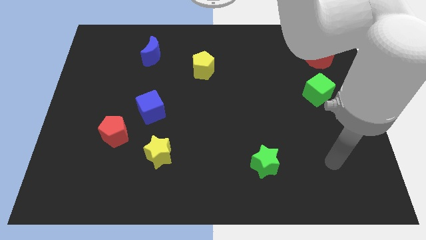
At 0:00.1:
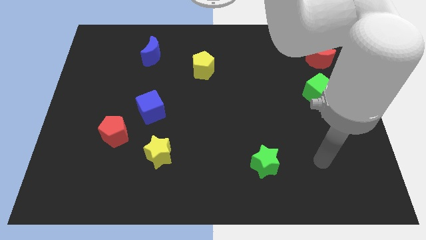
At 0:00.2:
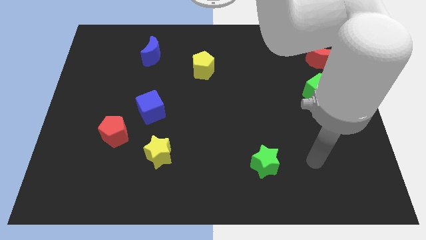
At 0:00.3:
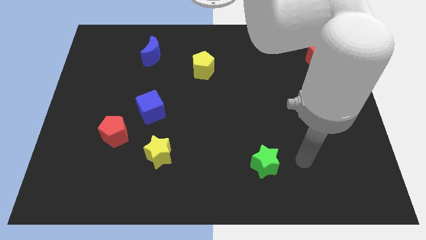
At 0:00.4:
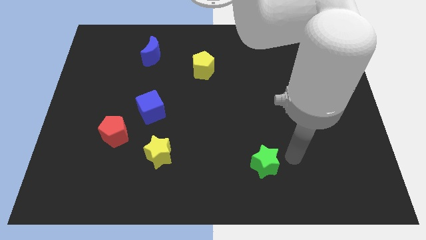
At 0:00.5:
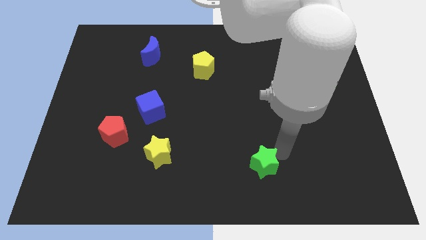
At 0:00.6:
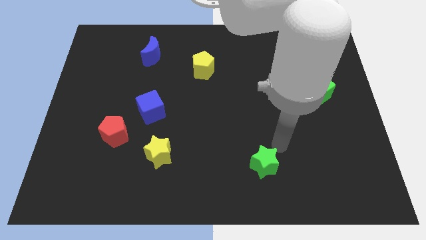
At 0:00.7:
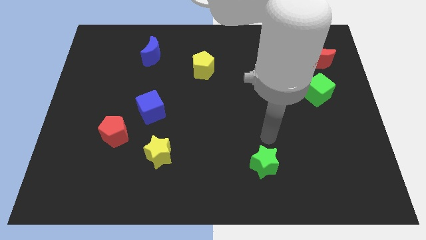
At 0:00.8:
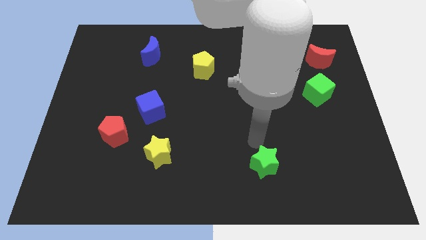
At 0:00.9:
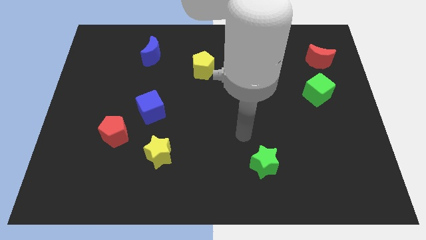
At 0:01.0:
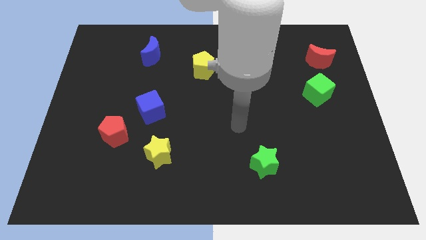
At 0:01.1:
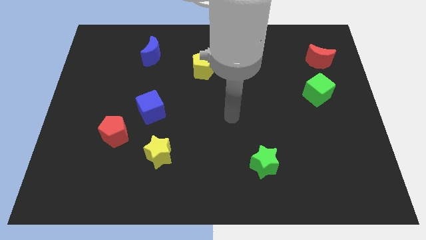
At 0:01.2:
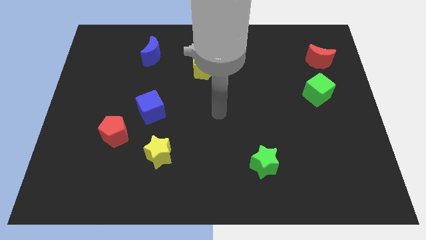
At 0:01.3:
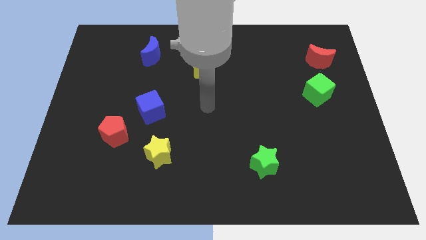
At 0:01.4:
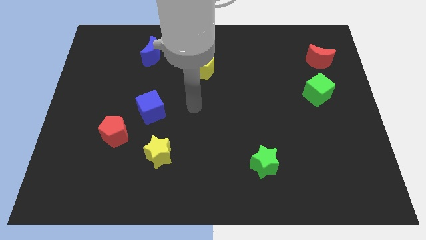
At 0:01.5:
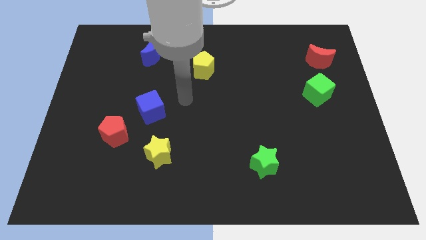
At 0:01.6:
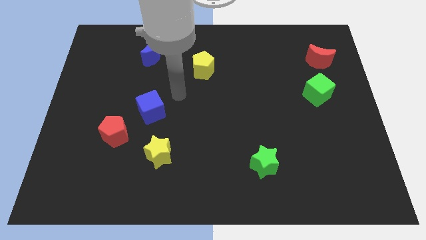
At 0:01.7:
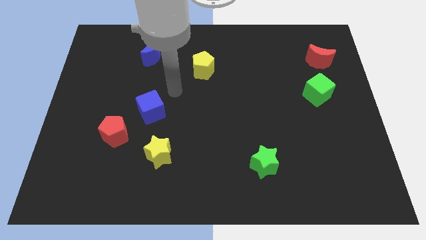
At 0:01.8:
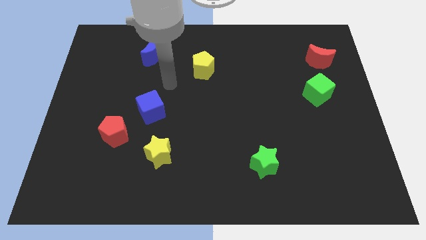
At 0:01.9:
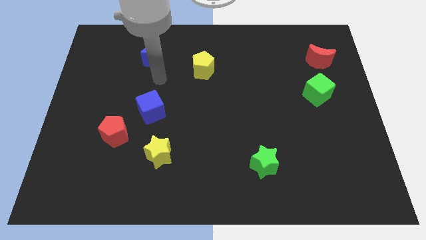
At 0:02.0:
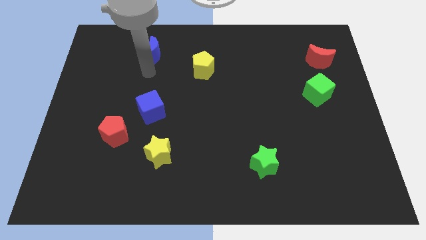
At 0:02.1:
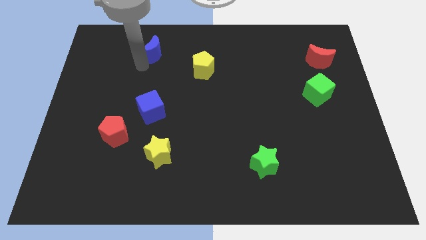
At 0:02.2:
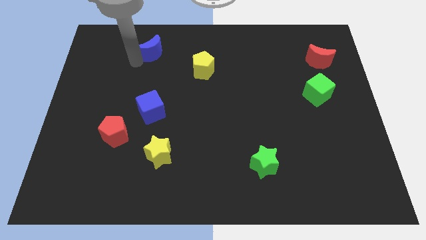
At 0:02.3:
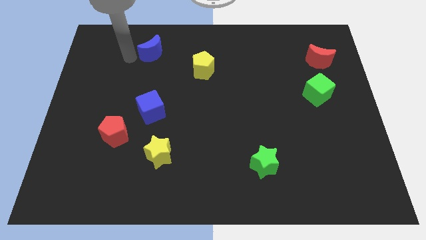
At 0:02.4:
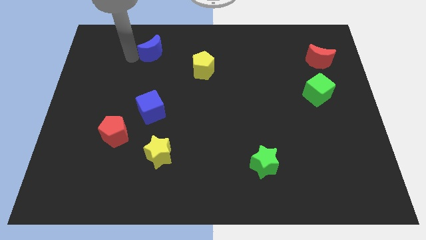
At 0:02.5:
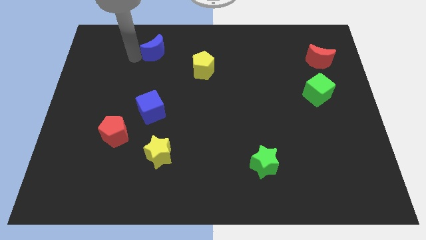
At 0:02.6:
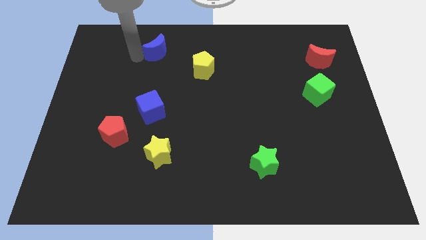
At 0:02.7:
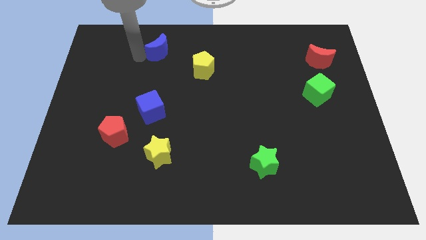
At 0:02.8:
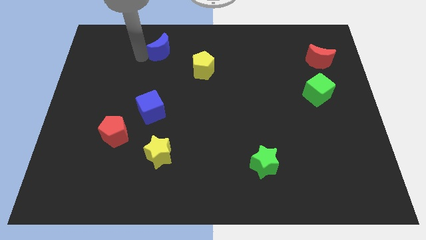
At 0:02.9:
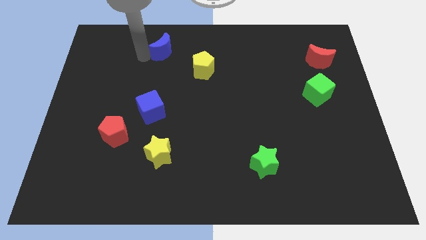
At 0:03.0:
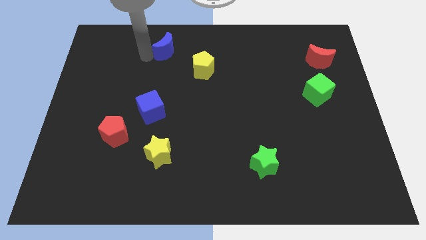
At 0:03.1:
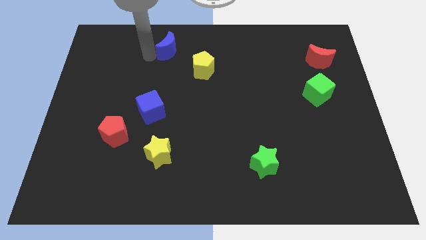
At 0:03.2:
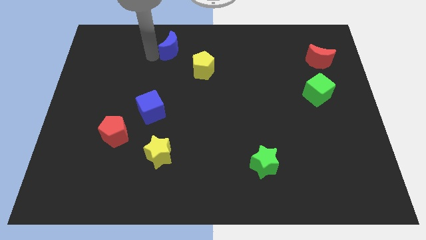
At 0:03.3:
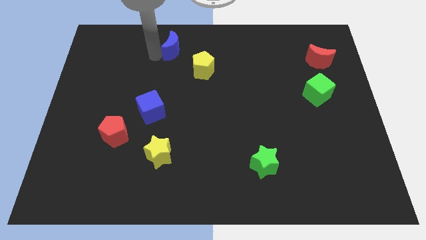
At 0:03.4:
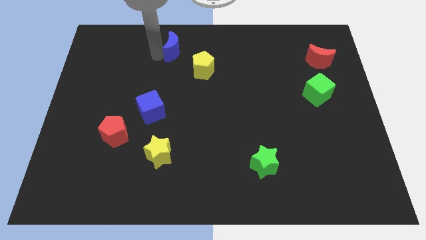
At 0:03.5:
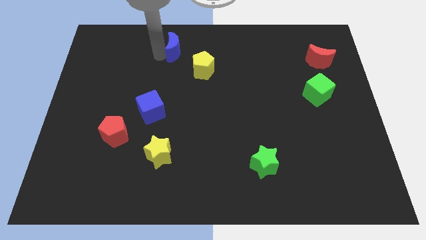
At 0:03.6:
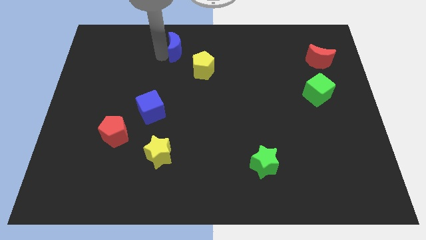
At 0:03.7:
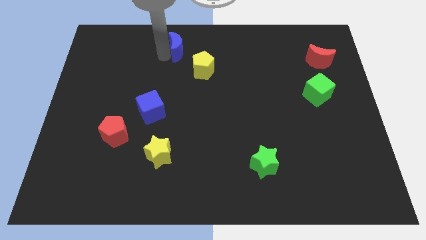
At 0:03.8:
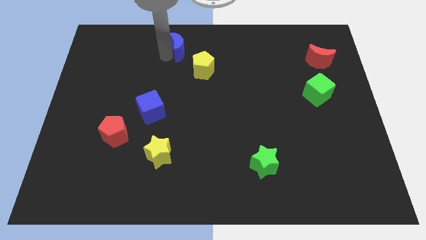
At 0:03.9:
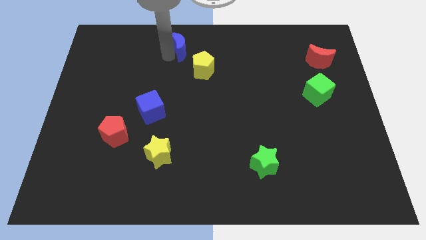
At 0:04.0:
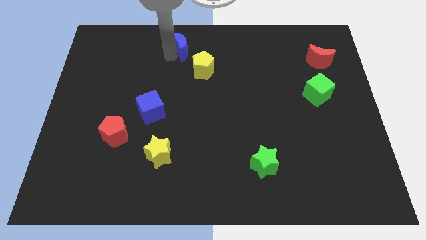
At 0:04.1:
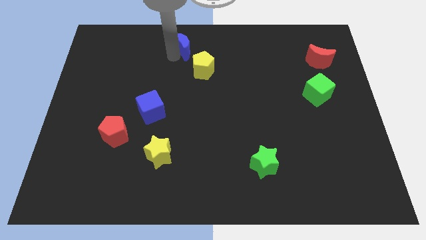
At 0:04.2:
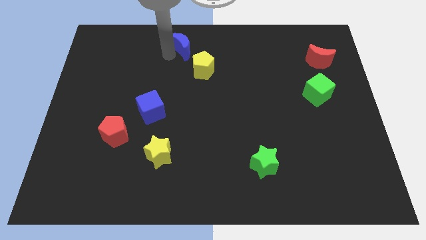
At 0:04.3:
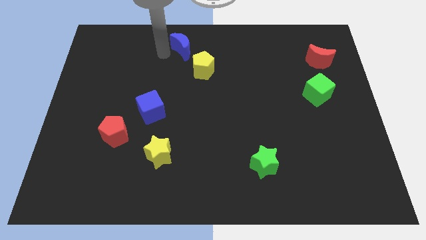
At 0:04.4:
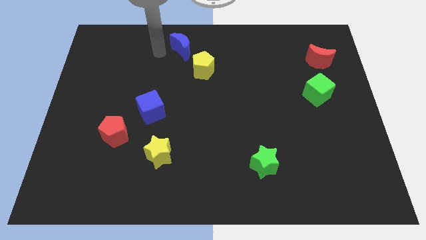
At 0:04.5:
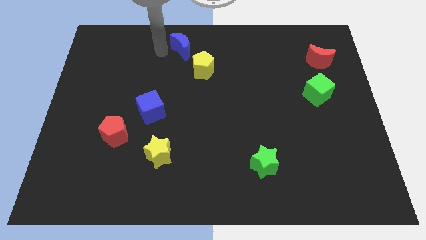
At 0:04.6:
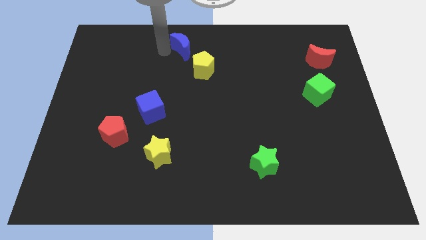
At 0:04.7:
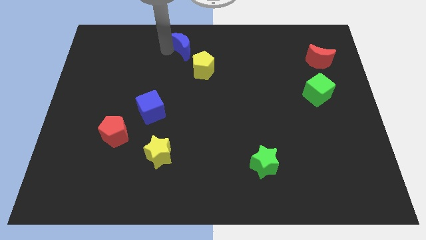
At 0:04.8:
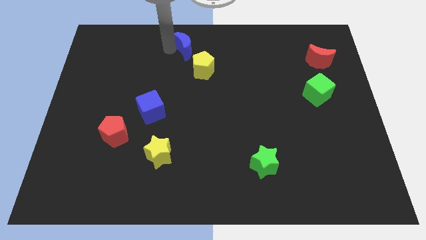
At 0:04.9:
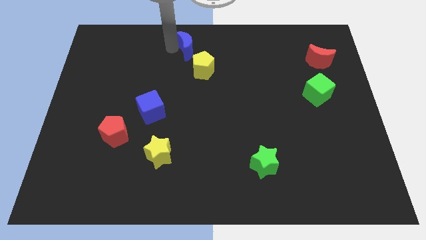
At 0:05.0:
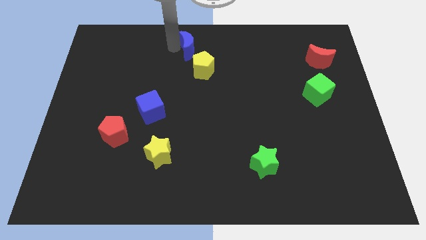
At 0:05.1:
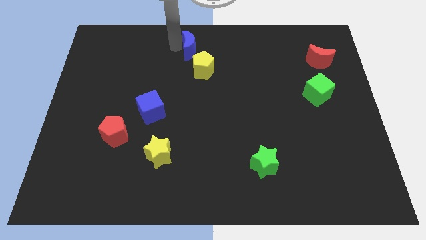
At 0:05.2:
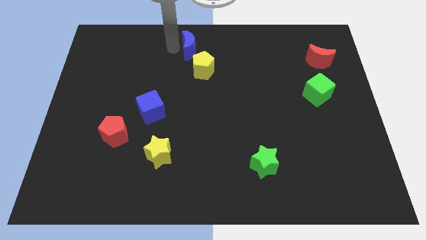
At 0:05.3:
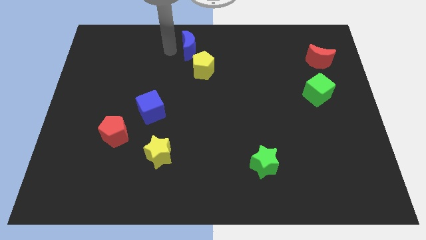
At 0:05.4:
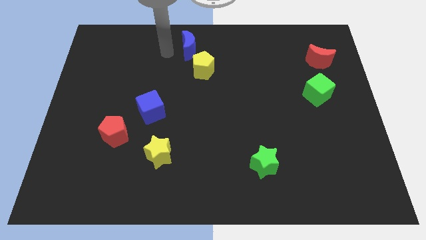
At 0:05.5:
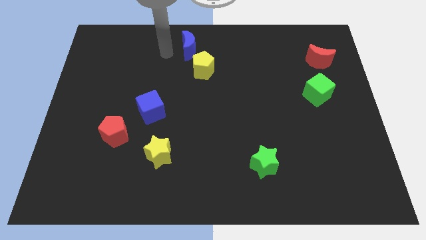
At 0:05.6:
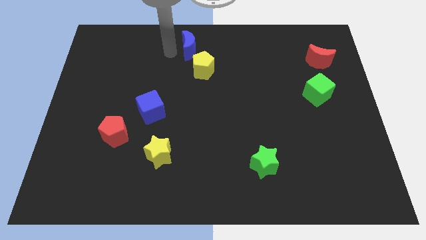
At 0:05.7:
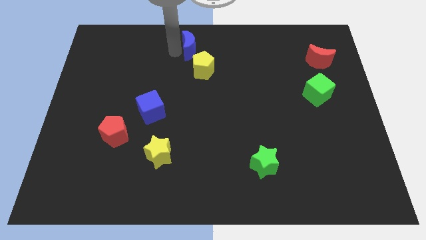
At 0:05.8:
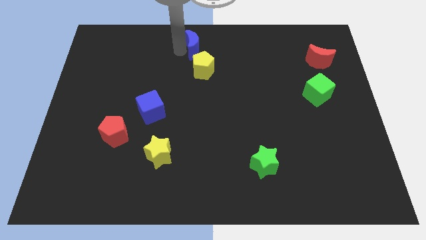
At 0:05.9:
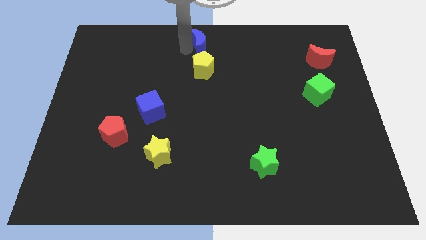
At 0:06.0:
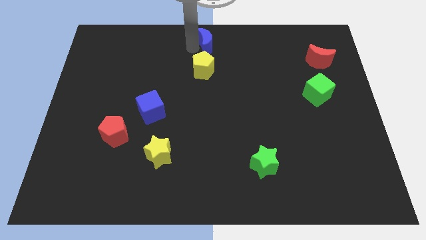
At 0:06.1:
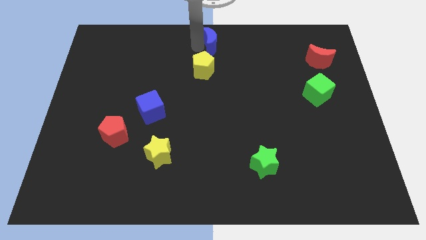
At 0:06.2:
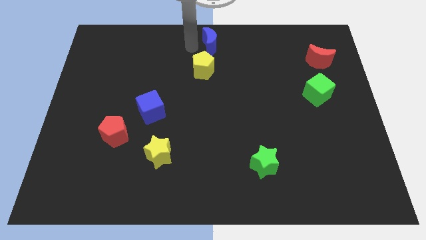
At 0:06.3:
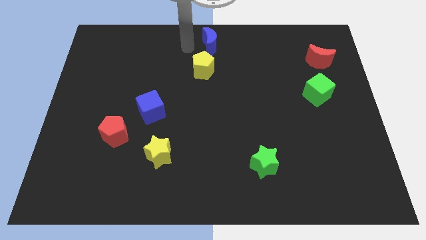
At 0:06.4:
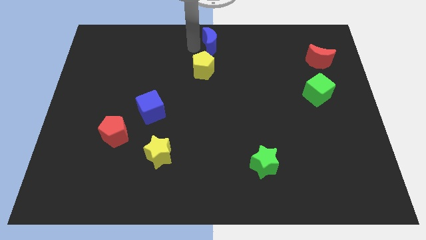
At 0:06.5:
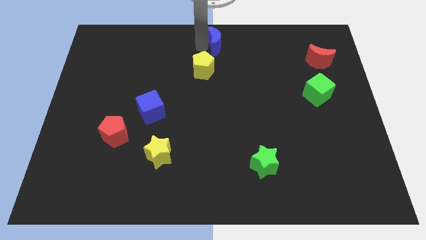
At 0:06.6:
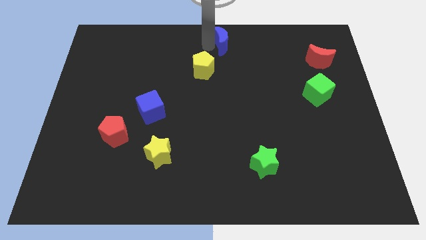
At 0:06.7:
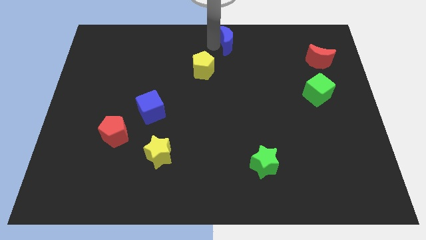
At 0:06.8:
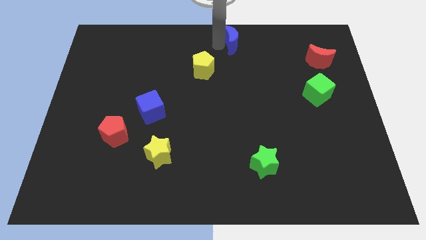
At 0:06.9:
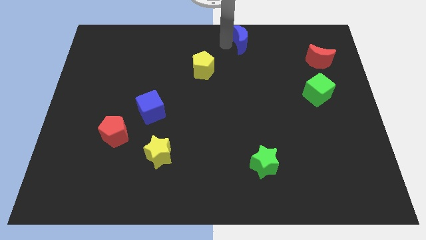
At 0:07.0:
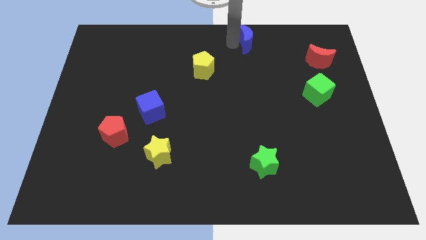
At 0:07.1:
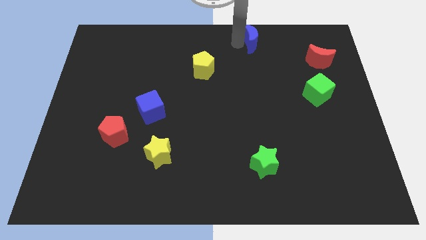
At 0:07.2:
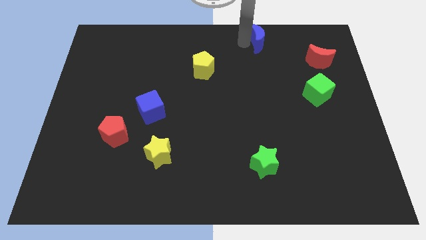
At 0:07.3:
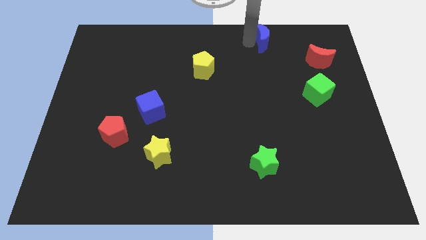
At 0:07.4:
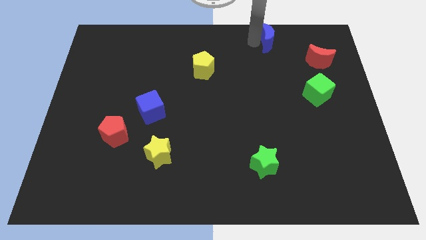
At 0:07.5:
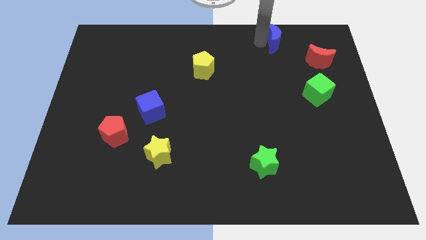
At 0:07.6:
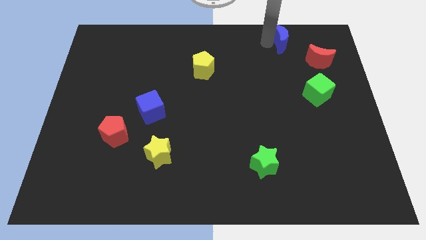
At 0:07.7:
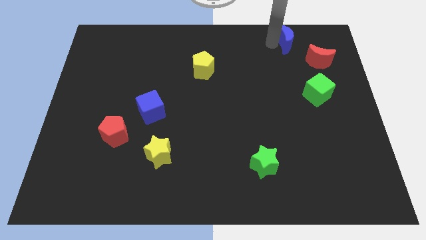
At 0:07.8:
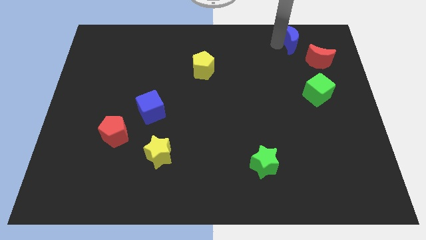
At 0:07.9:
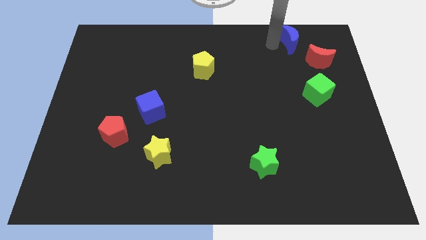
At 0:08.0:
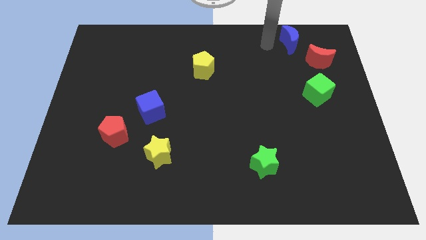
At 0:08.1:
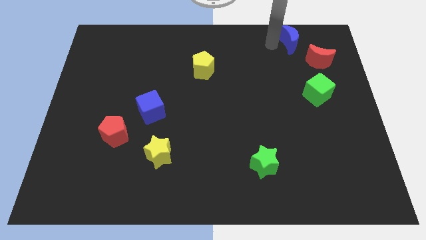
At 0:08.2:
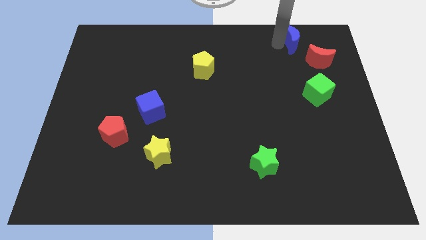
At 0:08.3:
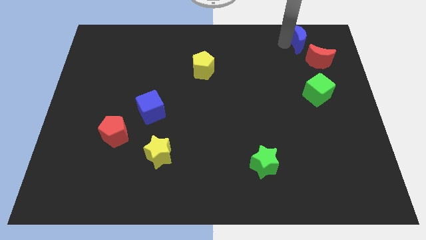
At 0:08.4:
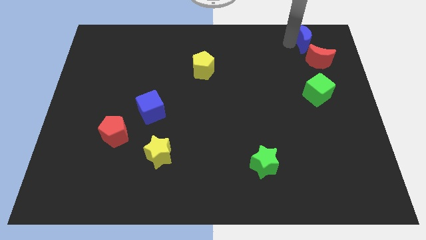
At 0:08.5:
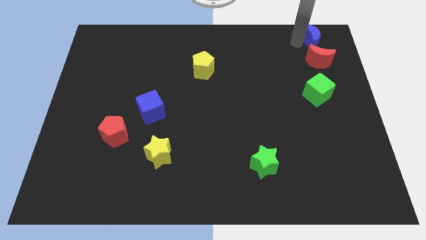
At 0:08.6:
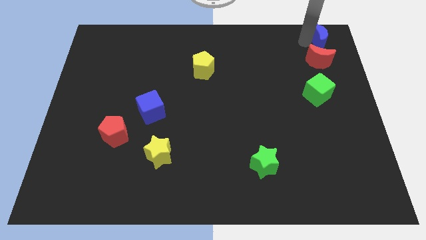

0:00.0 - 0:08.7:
move the blue moon to the top right of the board
